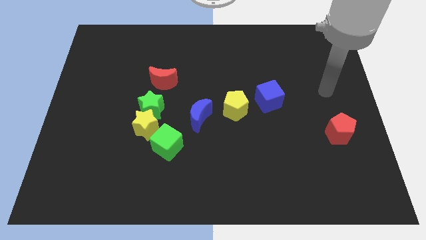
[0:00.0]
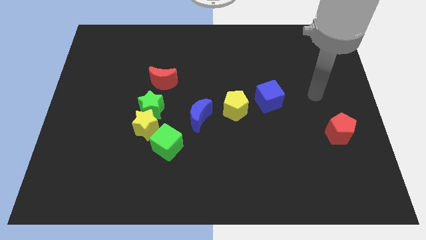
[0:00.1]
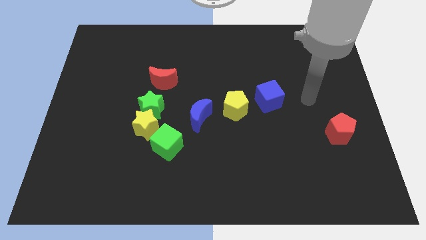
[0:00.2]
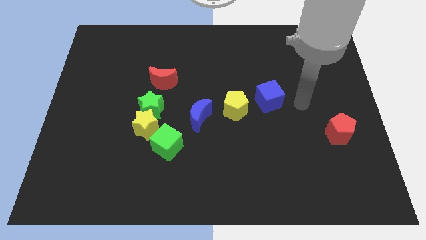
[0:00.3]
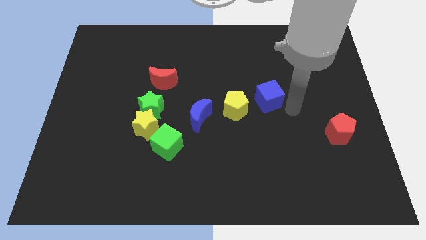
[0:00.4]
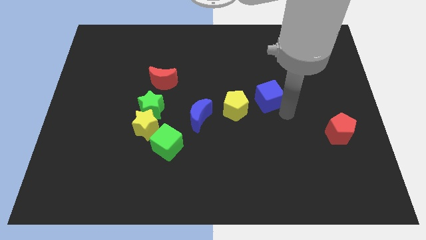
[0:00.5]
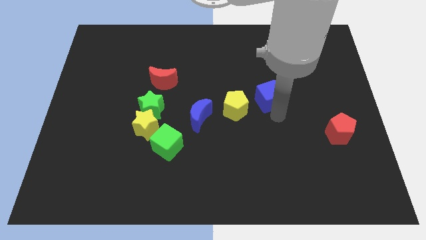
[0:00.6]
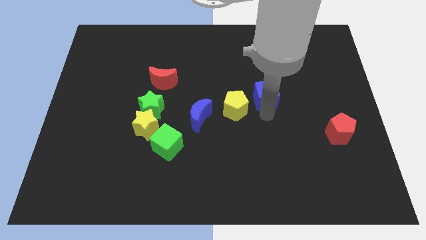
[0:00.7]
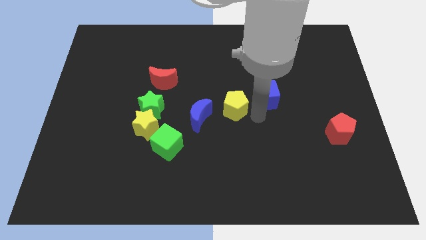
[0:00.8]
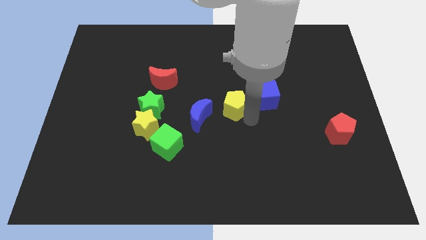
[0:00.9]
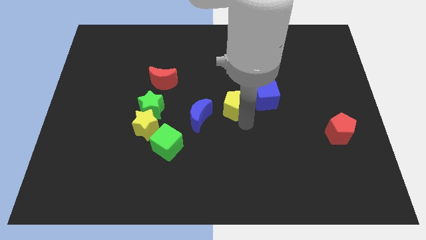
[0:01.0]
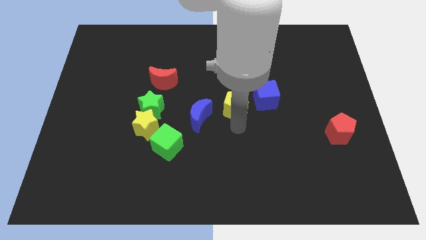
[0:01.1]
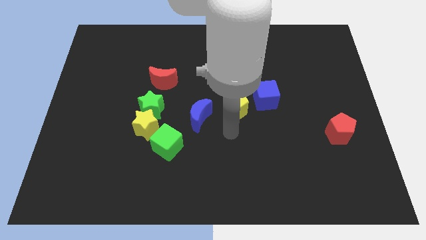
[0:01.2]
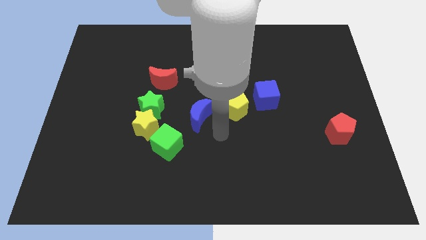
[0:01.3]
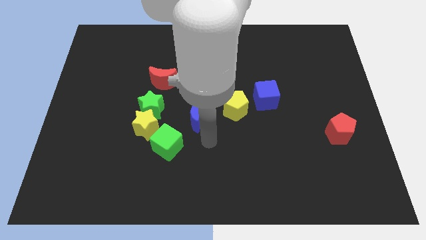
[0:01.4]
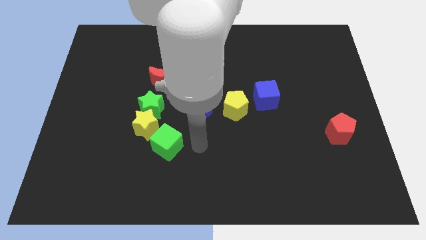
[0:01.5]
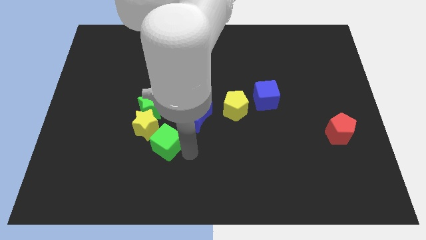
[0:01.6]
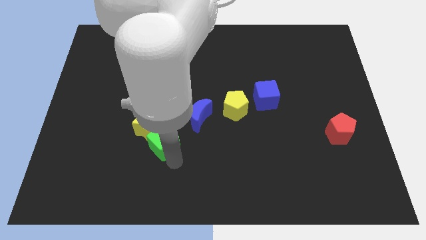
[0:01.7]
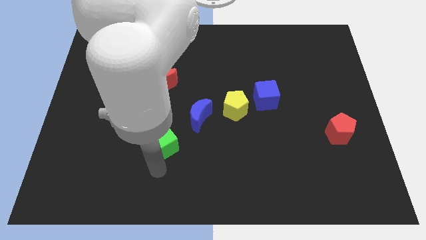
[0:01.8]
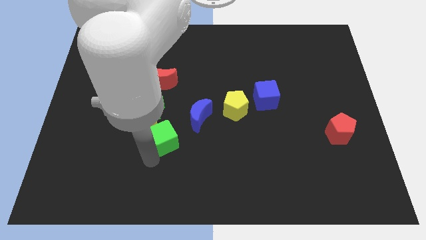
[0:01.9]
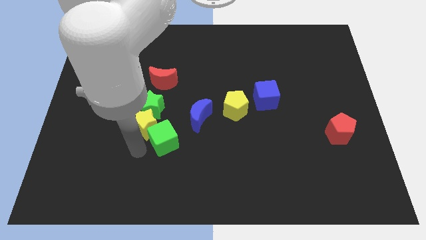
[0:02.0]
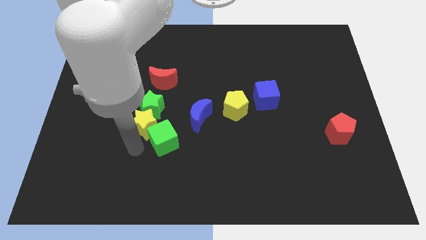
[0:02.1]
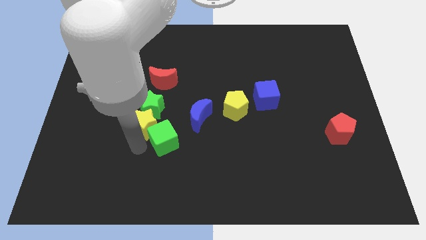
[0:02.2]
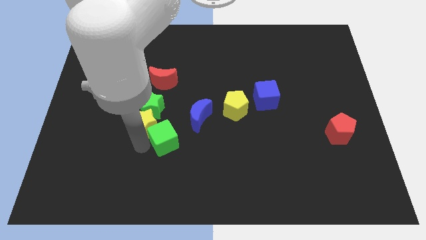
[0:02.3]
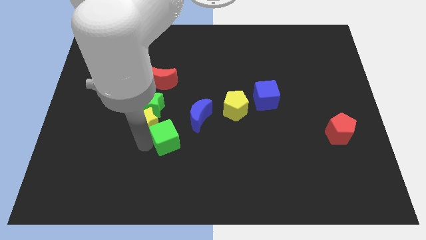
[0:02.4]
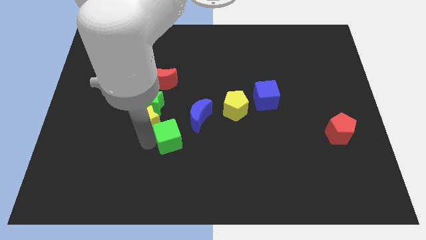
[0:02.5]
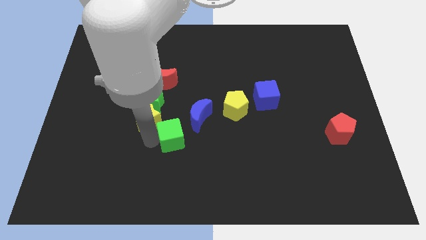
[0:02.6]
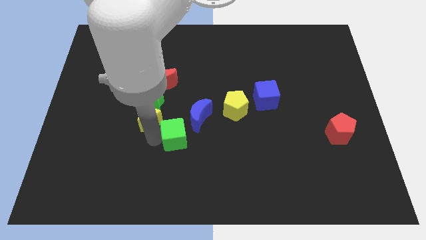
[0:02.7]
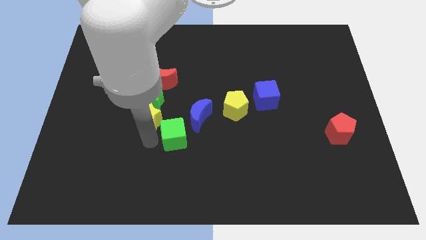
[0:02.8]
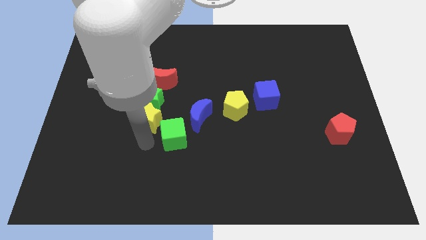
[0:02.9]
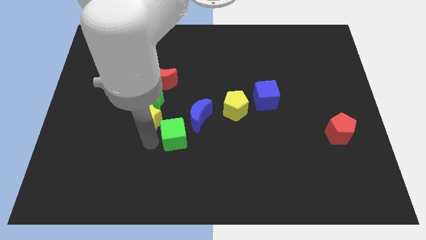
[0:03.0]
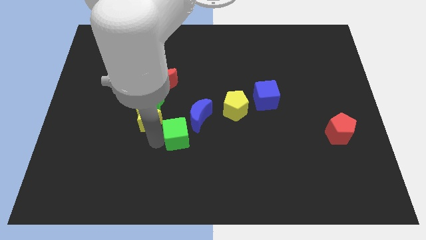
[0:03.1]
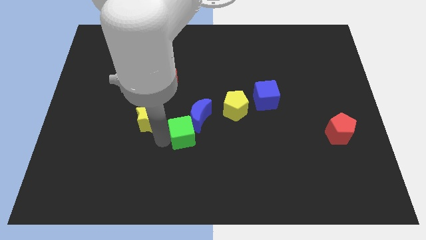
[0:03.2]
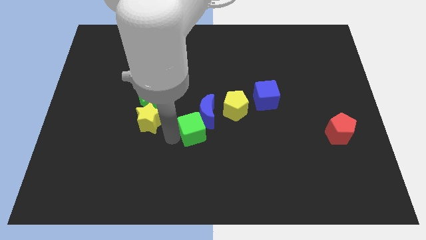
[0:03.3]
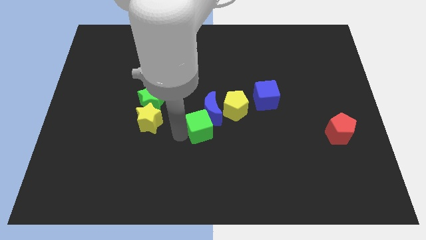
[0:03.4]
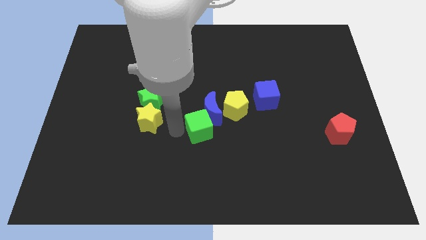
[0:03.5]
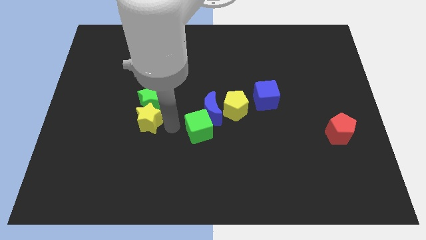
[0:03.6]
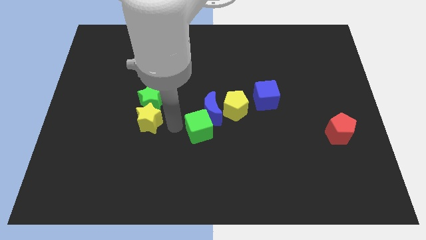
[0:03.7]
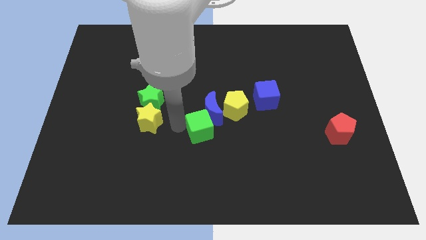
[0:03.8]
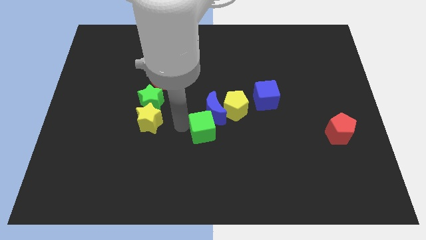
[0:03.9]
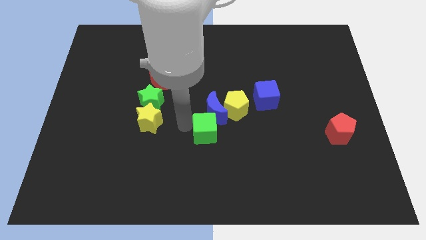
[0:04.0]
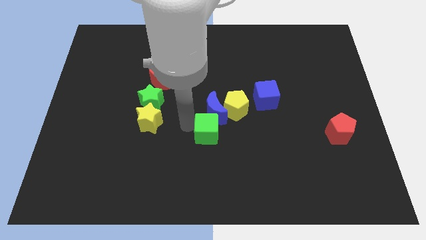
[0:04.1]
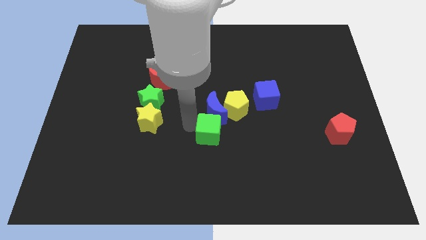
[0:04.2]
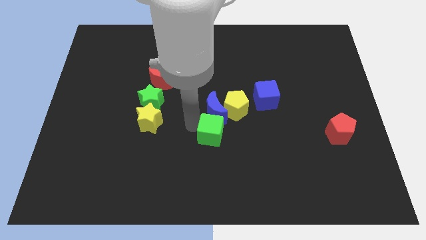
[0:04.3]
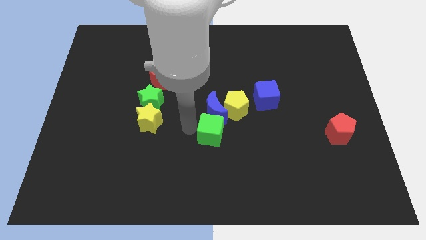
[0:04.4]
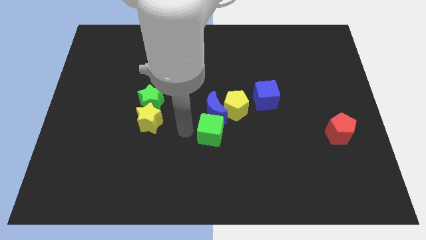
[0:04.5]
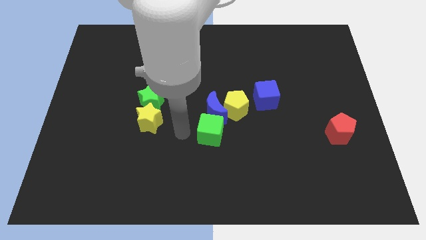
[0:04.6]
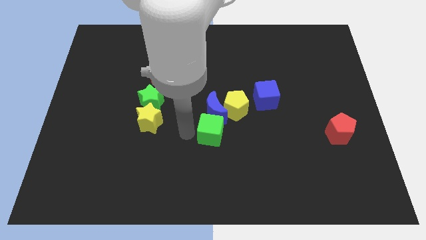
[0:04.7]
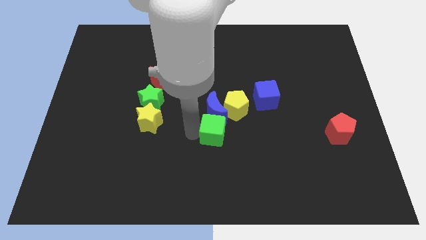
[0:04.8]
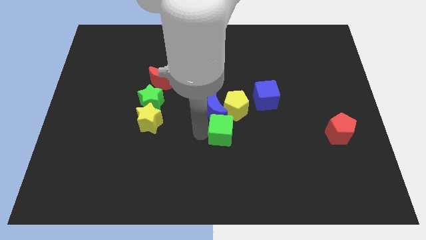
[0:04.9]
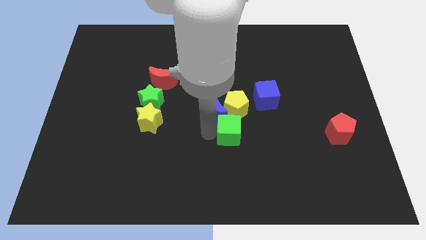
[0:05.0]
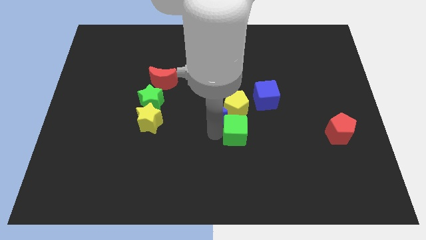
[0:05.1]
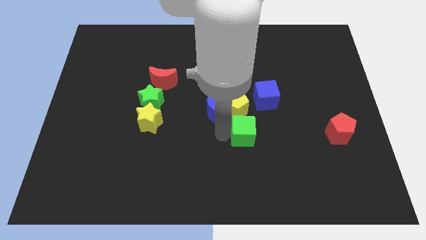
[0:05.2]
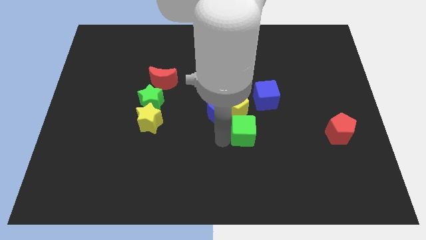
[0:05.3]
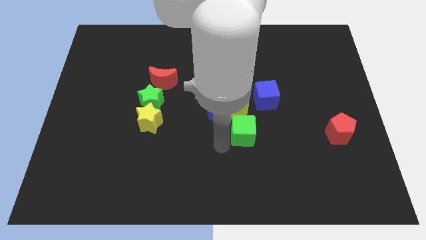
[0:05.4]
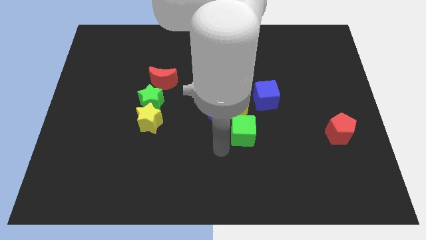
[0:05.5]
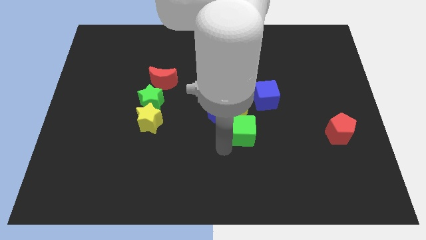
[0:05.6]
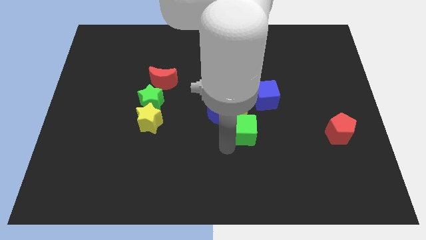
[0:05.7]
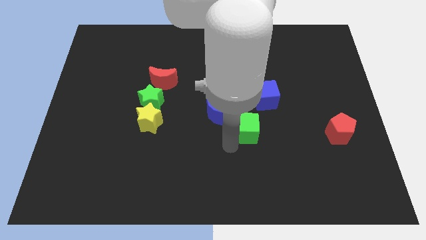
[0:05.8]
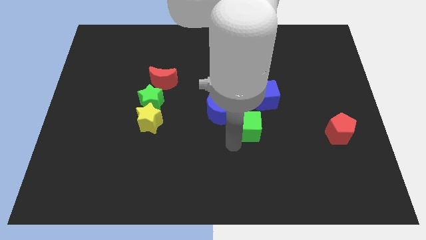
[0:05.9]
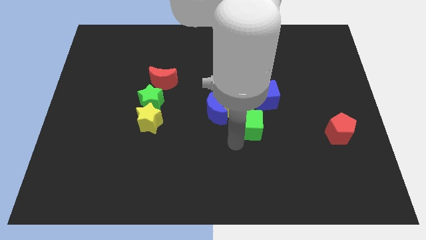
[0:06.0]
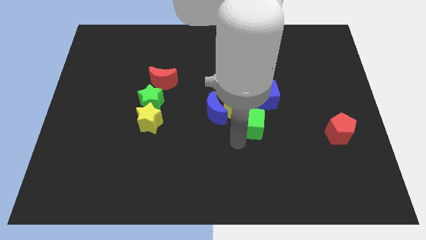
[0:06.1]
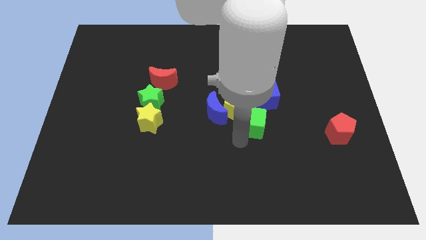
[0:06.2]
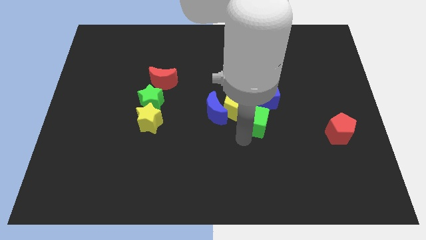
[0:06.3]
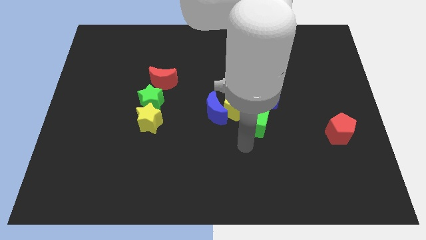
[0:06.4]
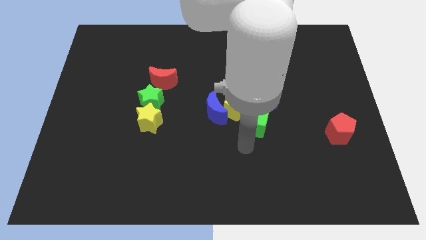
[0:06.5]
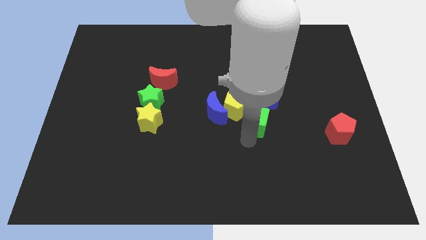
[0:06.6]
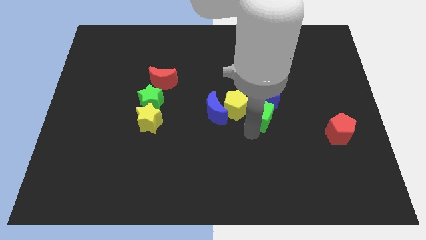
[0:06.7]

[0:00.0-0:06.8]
move the green cube close to the blue cube
